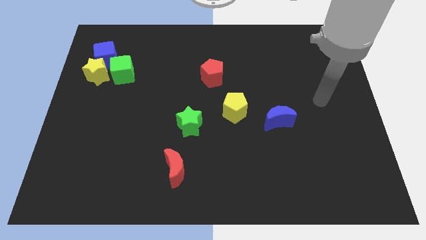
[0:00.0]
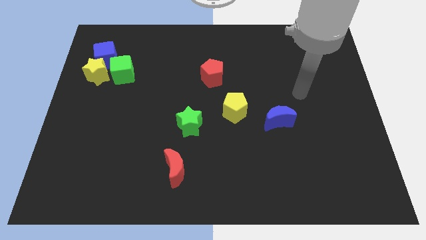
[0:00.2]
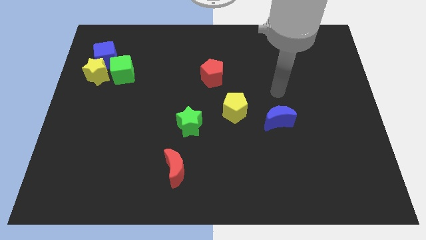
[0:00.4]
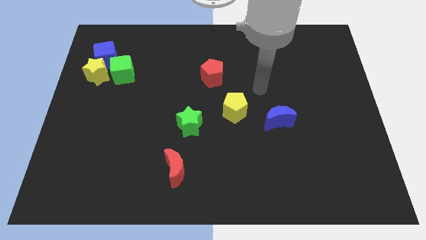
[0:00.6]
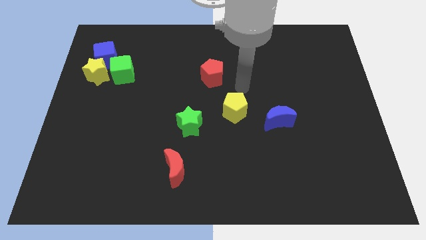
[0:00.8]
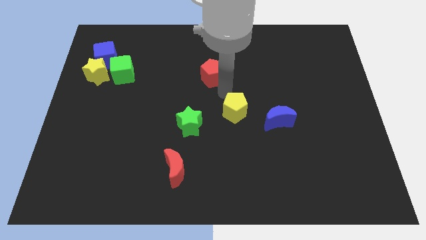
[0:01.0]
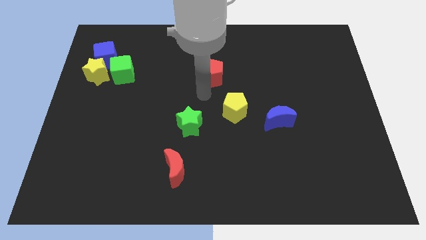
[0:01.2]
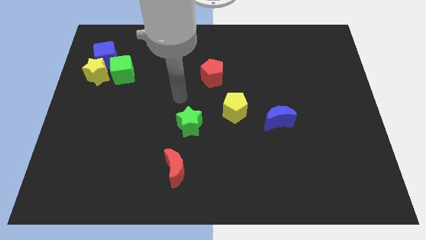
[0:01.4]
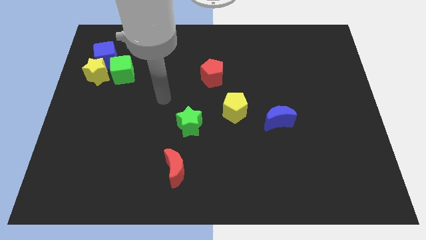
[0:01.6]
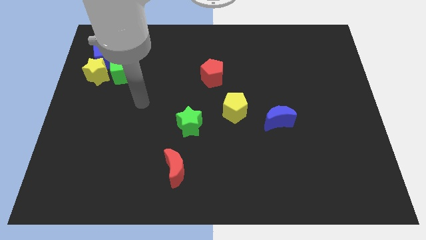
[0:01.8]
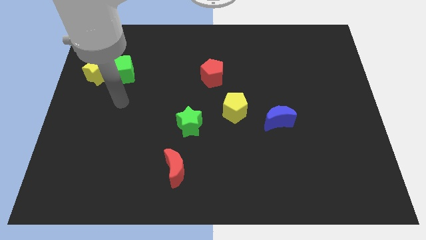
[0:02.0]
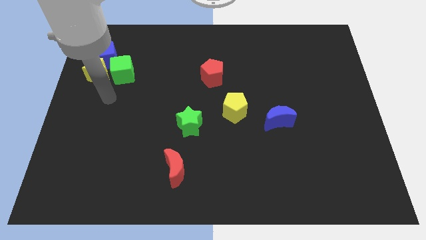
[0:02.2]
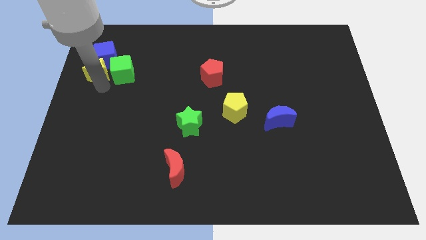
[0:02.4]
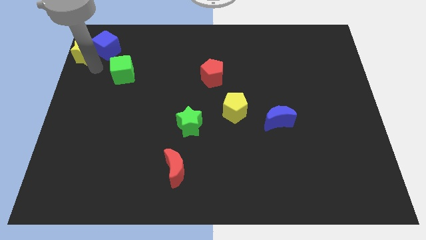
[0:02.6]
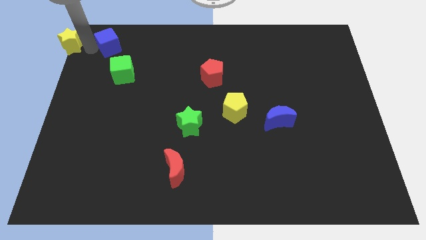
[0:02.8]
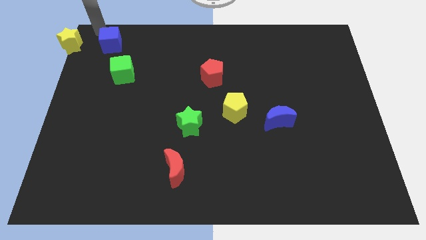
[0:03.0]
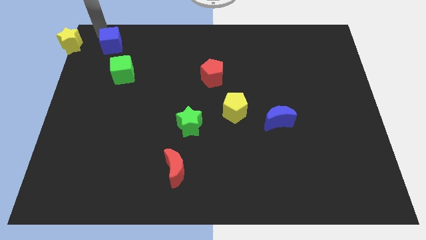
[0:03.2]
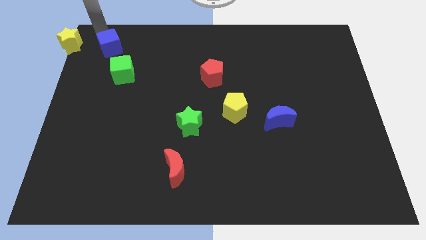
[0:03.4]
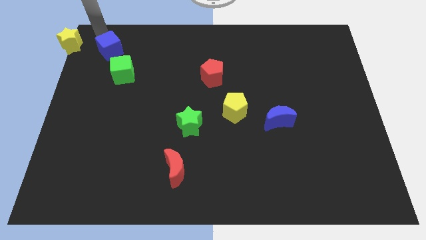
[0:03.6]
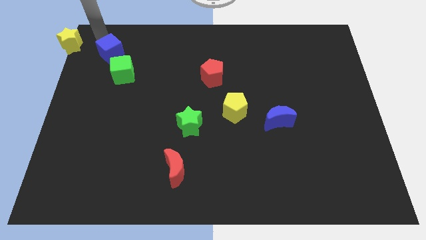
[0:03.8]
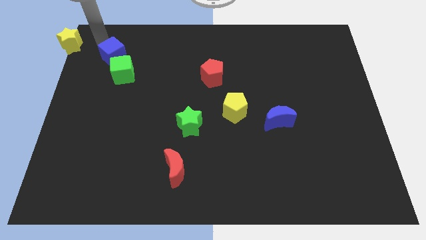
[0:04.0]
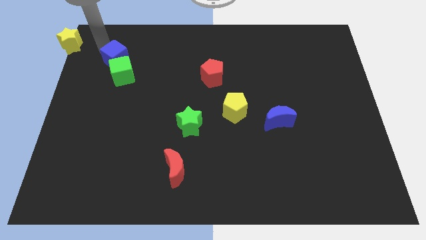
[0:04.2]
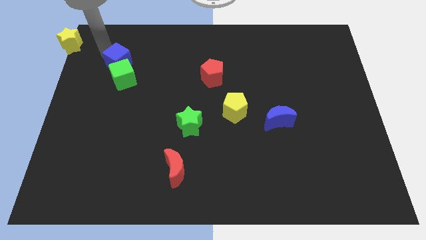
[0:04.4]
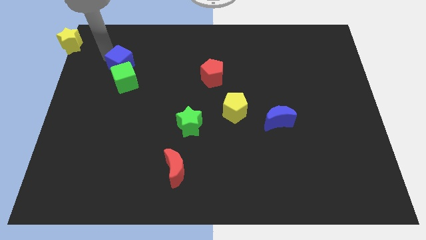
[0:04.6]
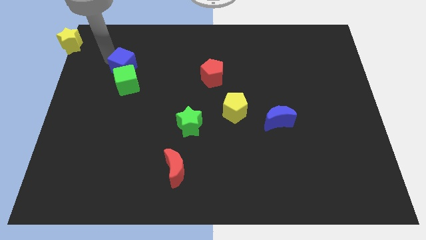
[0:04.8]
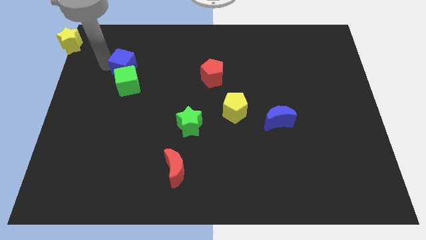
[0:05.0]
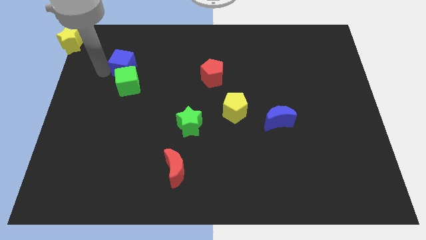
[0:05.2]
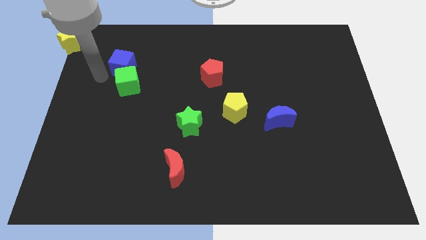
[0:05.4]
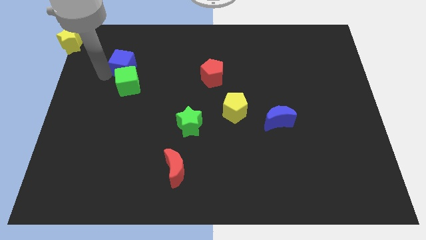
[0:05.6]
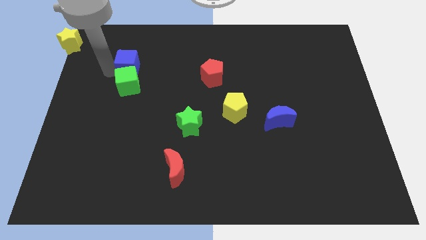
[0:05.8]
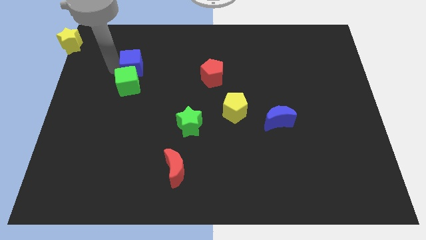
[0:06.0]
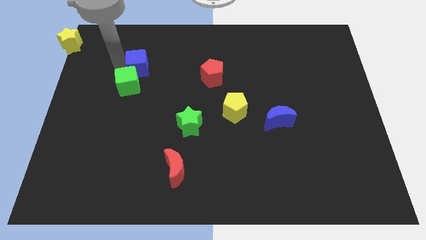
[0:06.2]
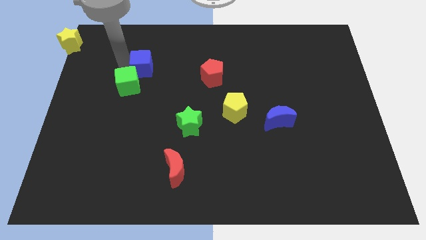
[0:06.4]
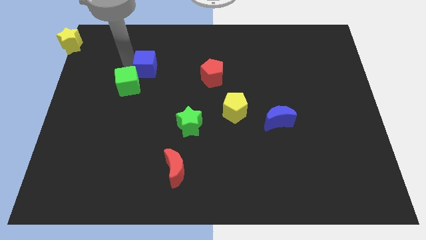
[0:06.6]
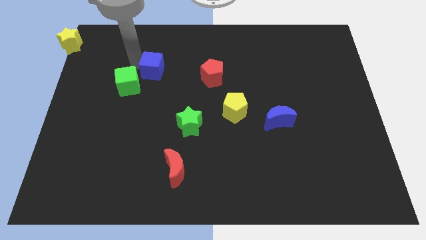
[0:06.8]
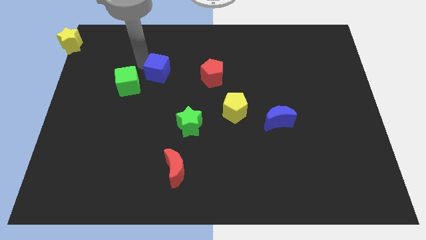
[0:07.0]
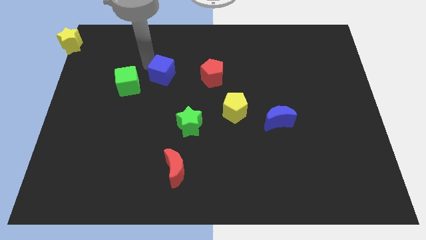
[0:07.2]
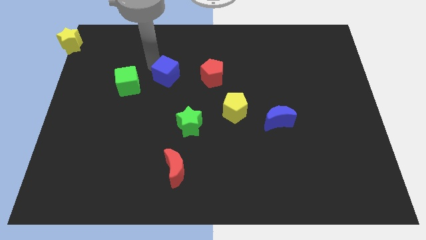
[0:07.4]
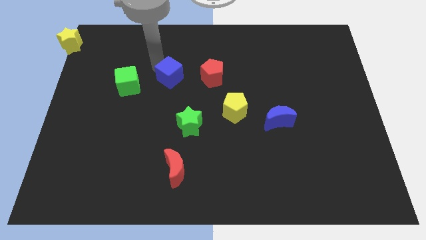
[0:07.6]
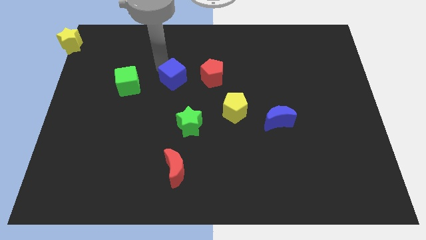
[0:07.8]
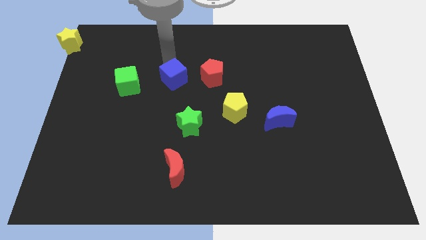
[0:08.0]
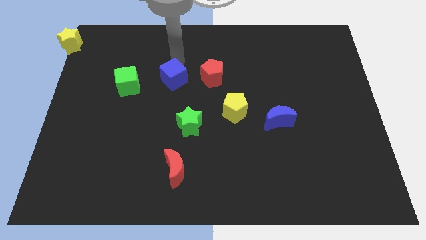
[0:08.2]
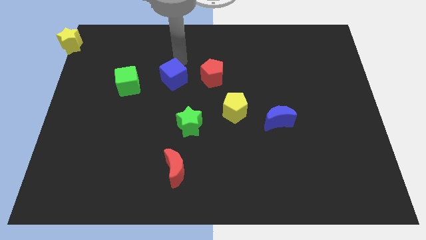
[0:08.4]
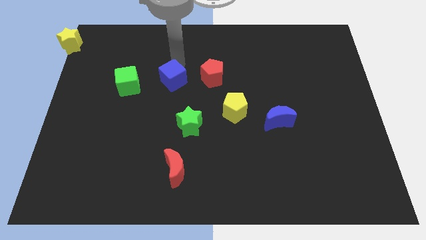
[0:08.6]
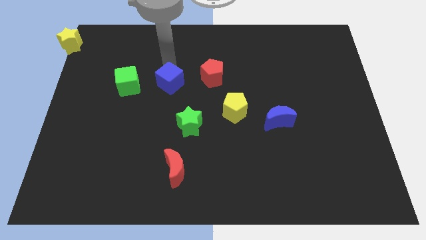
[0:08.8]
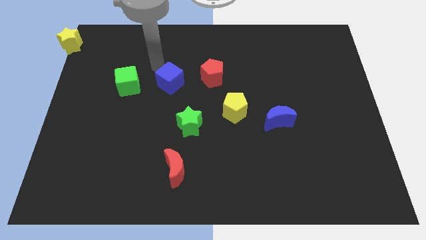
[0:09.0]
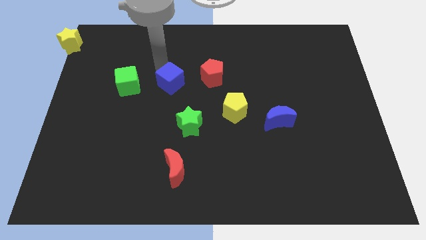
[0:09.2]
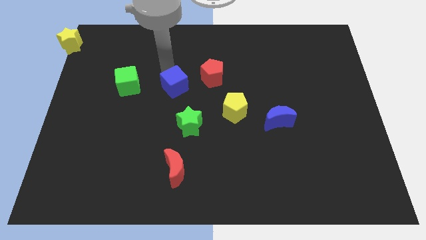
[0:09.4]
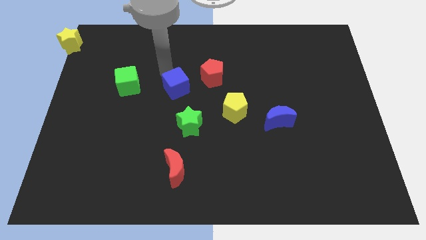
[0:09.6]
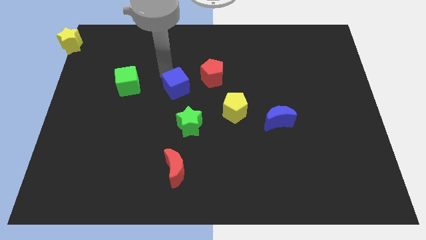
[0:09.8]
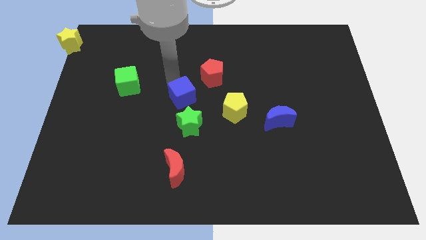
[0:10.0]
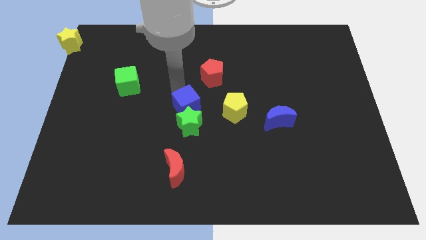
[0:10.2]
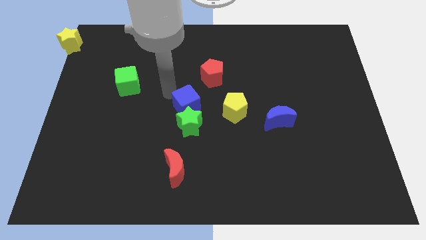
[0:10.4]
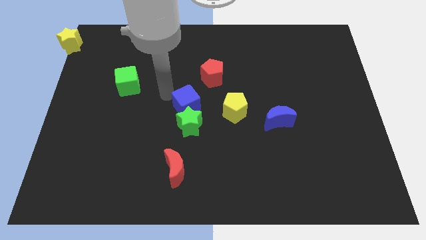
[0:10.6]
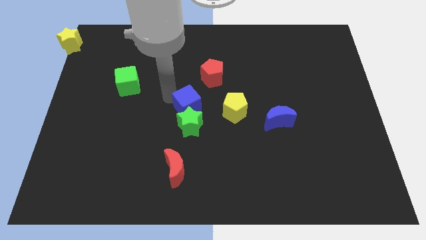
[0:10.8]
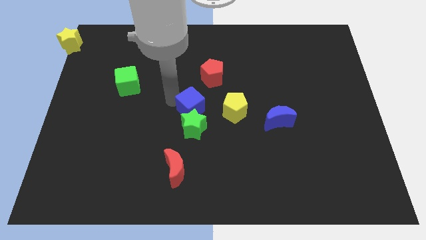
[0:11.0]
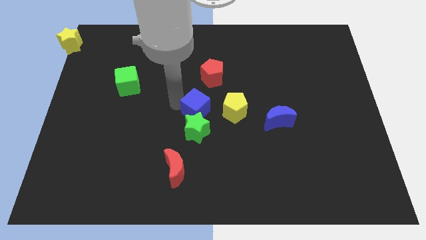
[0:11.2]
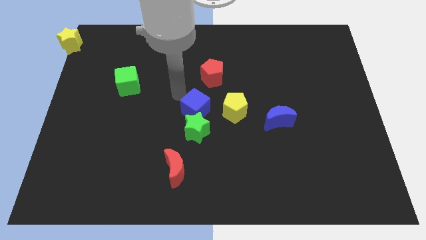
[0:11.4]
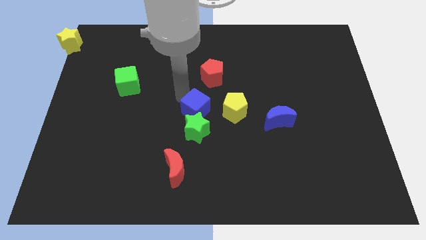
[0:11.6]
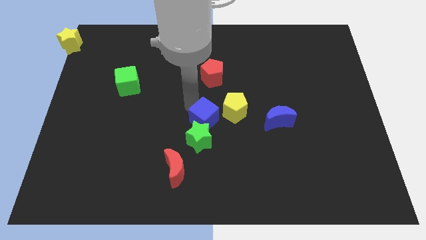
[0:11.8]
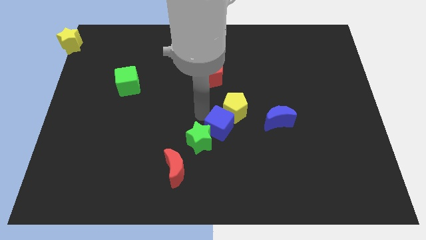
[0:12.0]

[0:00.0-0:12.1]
push the blue cube below the yellow pentagon

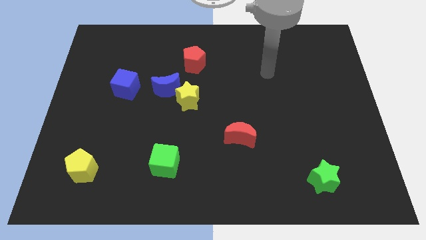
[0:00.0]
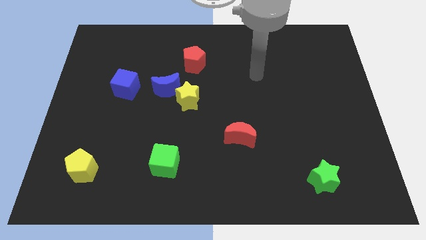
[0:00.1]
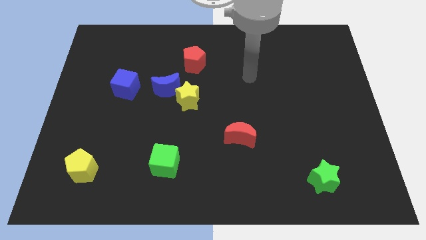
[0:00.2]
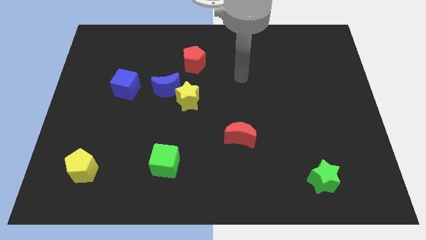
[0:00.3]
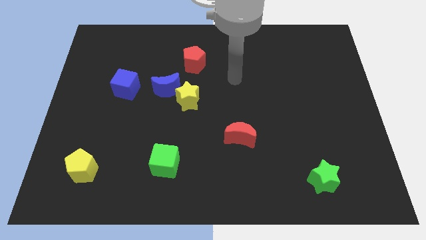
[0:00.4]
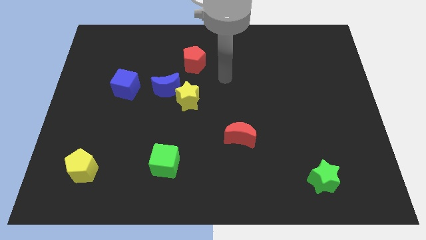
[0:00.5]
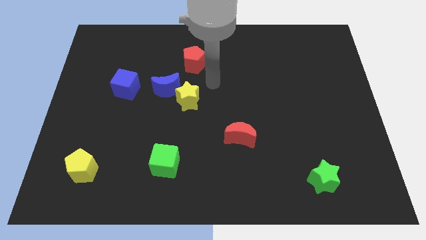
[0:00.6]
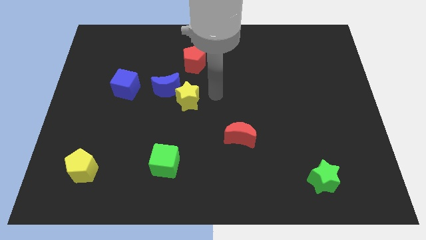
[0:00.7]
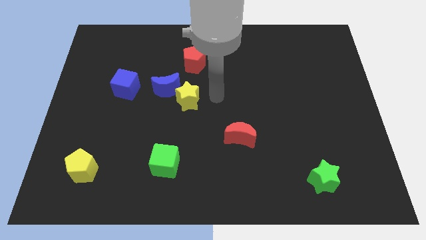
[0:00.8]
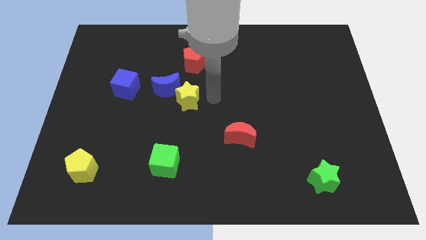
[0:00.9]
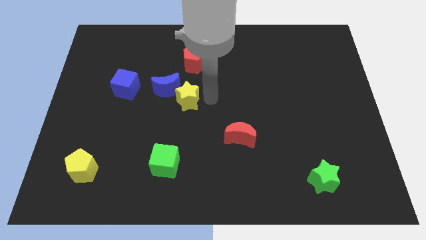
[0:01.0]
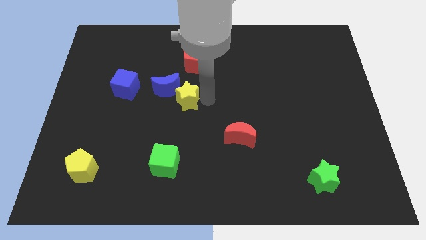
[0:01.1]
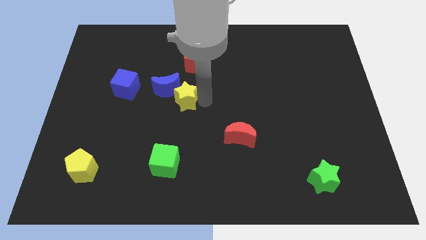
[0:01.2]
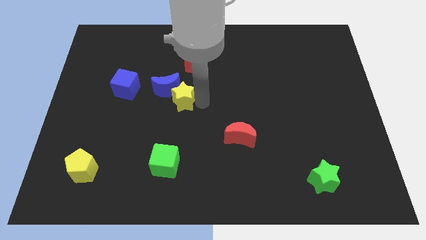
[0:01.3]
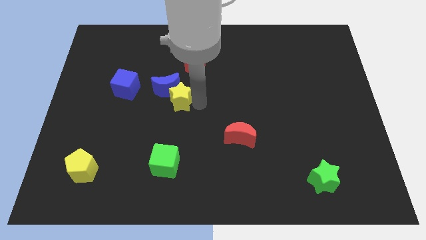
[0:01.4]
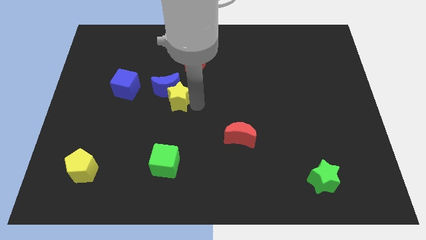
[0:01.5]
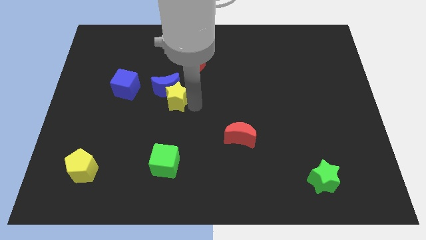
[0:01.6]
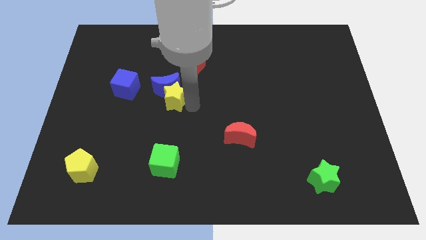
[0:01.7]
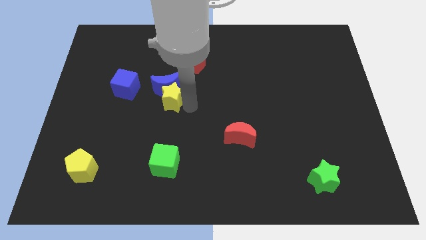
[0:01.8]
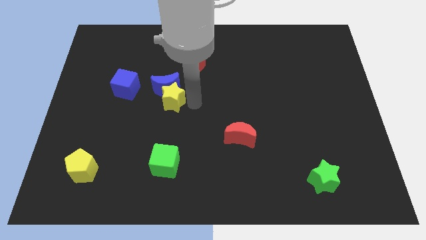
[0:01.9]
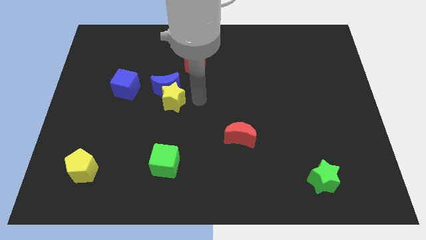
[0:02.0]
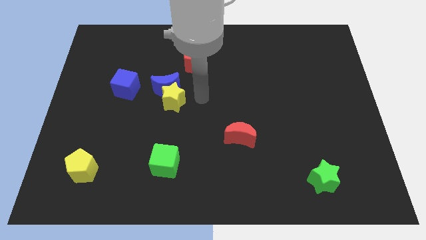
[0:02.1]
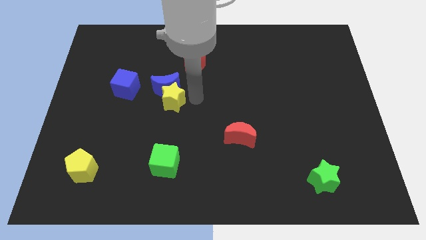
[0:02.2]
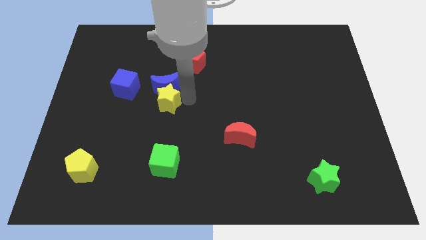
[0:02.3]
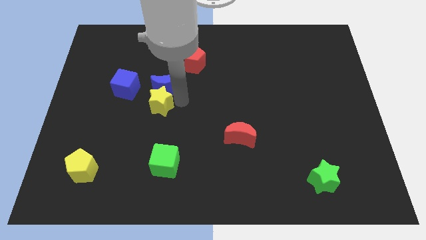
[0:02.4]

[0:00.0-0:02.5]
put the yellow star to the bottom right side of the blue cube
